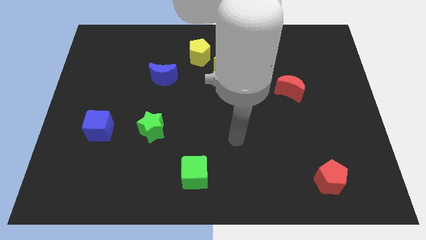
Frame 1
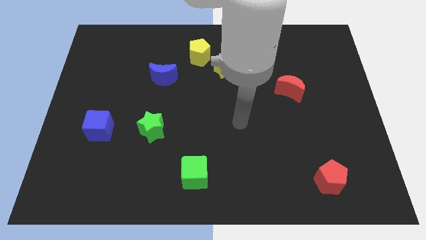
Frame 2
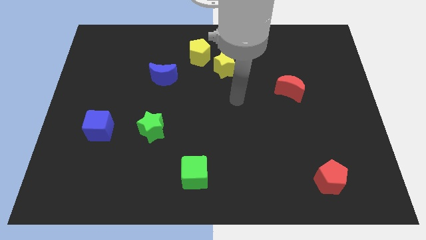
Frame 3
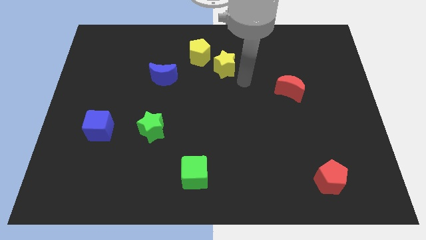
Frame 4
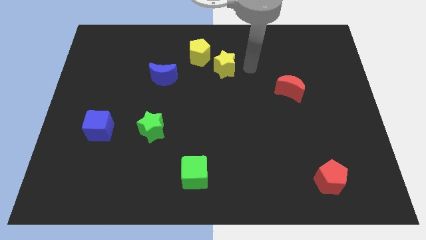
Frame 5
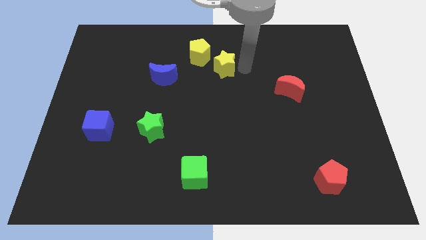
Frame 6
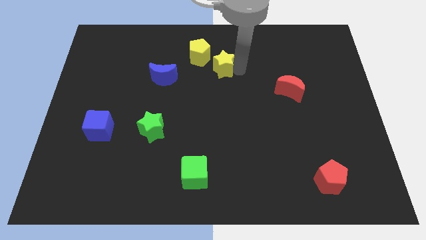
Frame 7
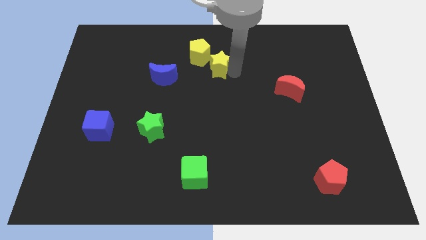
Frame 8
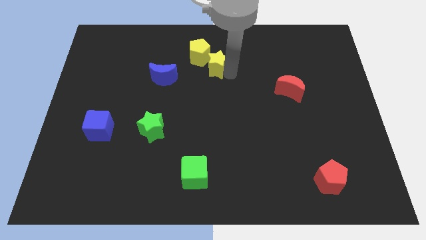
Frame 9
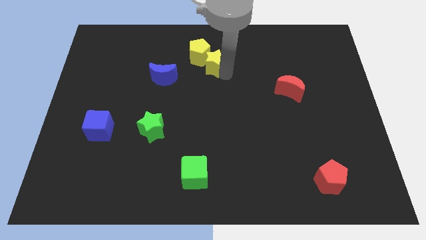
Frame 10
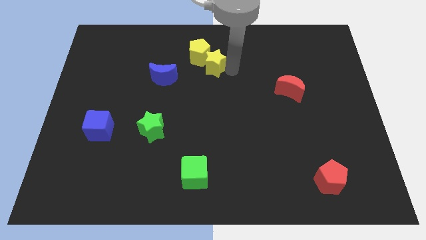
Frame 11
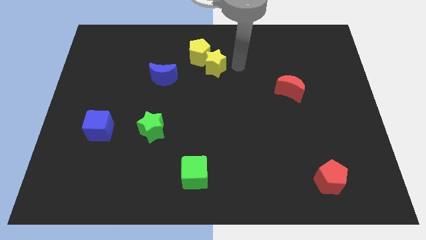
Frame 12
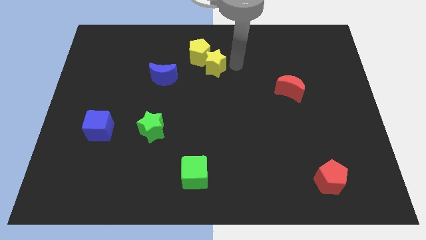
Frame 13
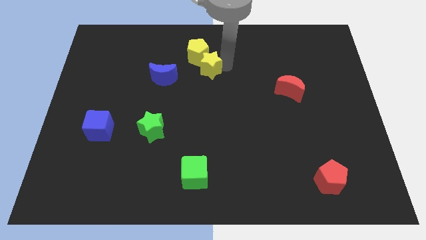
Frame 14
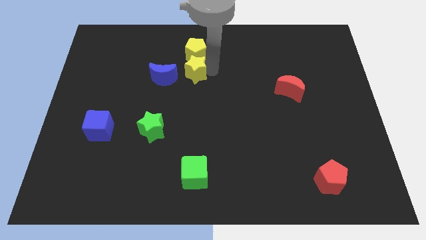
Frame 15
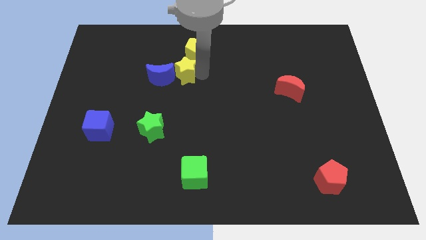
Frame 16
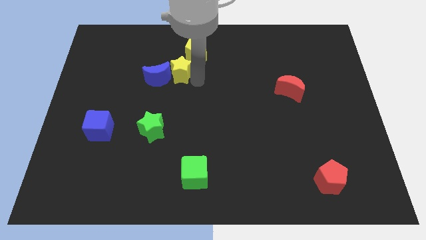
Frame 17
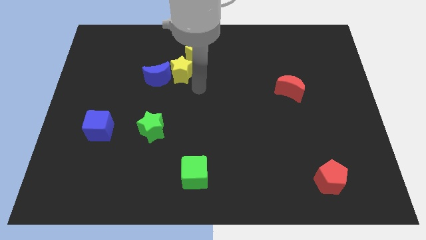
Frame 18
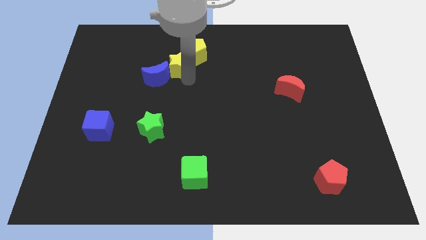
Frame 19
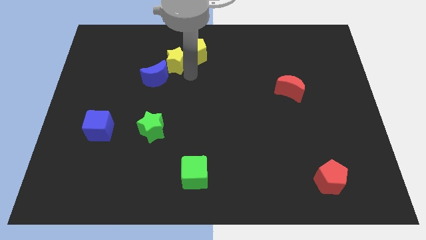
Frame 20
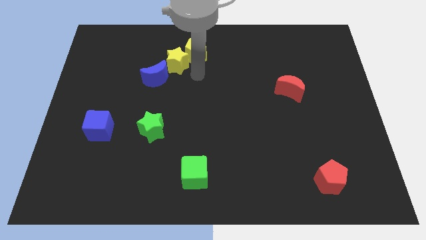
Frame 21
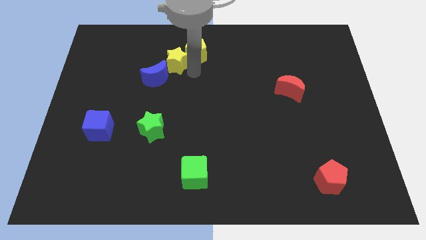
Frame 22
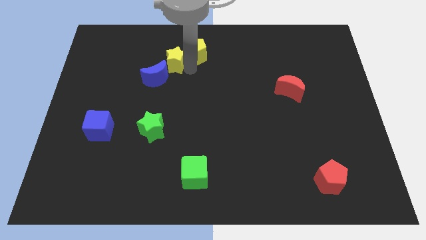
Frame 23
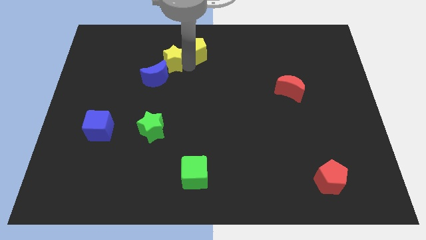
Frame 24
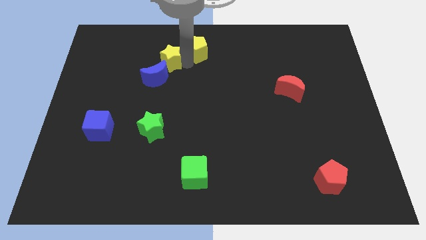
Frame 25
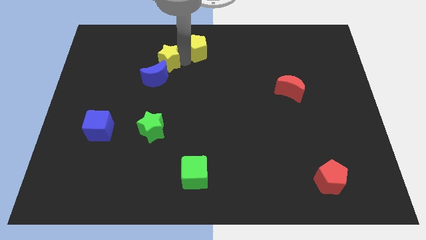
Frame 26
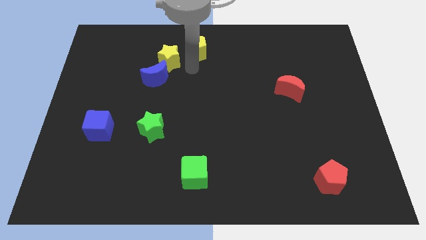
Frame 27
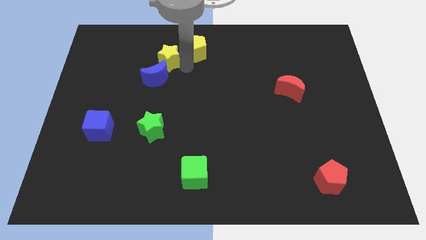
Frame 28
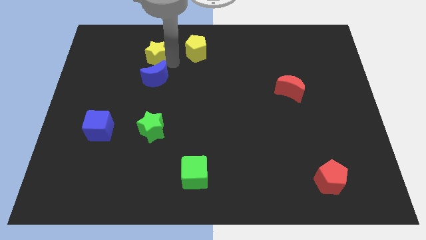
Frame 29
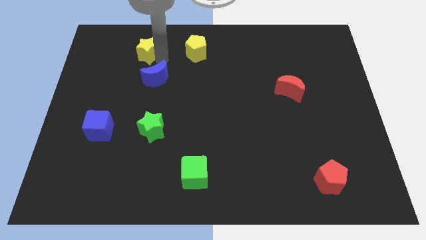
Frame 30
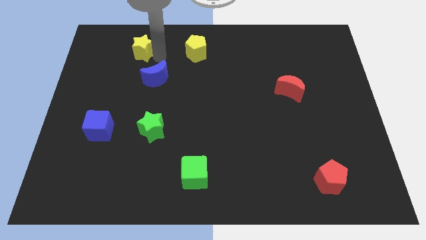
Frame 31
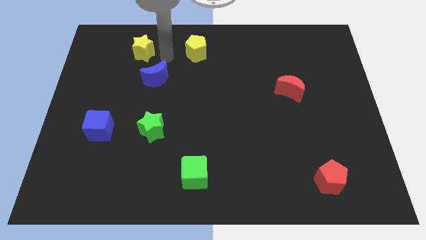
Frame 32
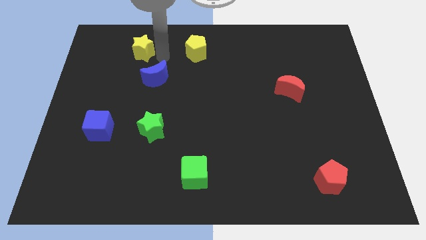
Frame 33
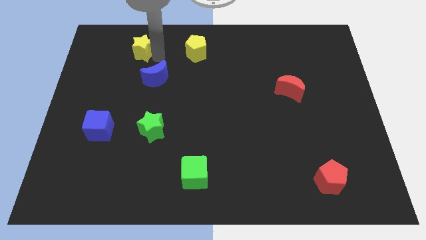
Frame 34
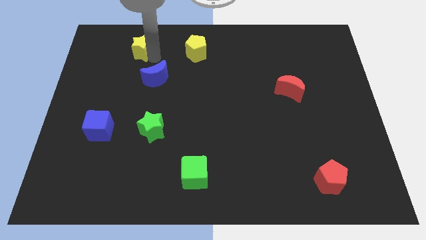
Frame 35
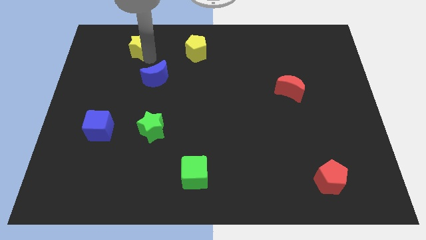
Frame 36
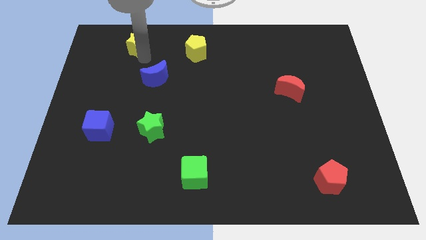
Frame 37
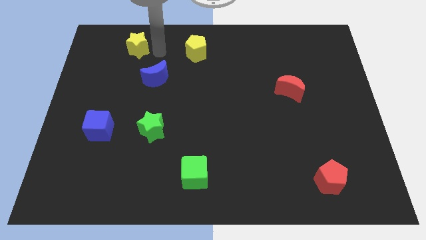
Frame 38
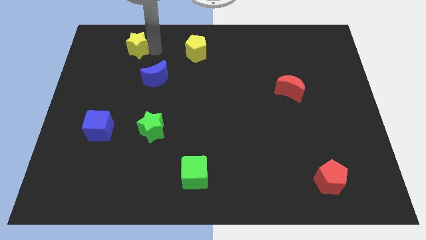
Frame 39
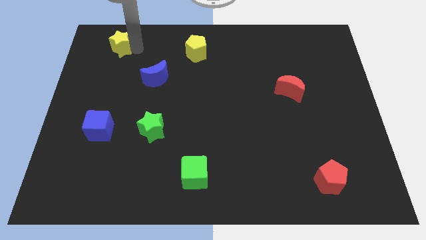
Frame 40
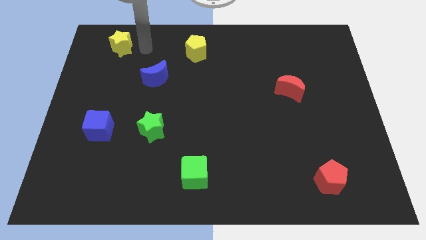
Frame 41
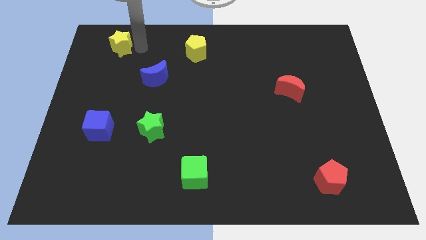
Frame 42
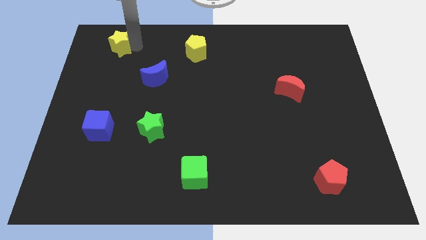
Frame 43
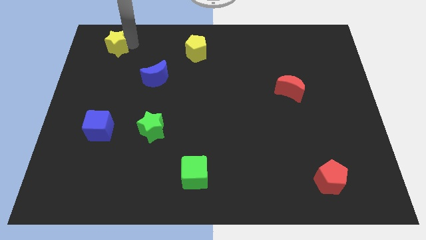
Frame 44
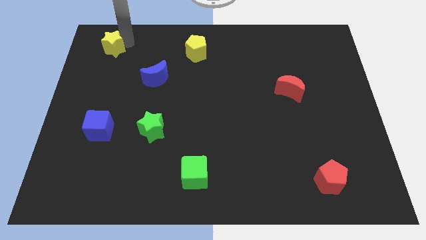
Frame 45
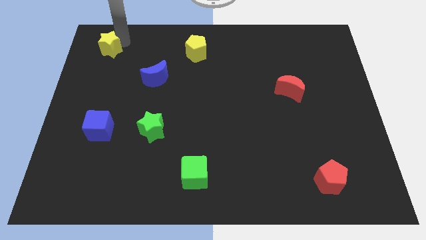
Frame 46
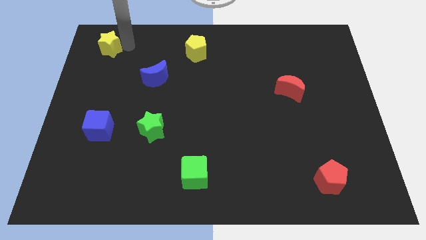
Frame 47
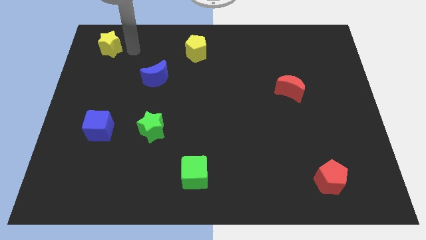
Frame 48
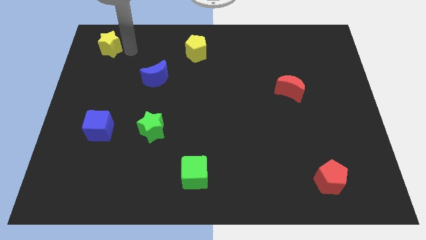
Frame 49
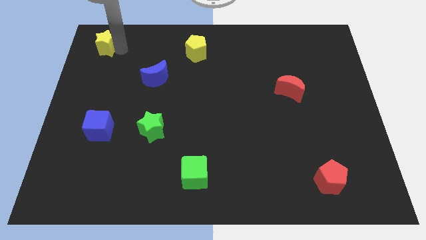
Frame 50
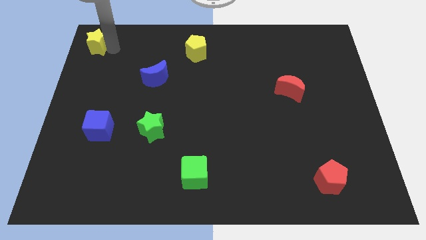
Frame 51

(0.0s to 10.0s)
slide the yellow star to the top left corner

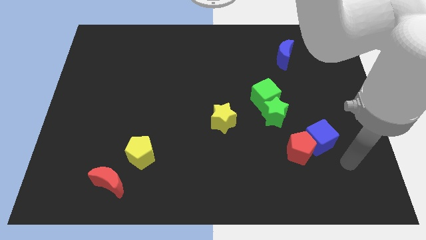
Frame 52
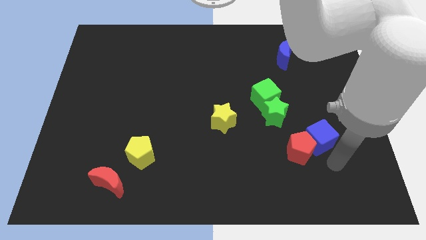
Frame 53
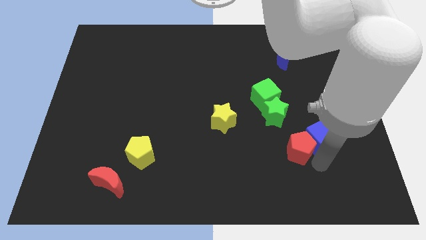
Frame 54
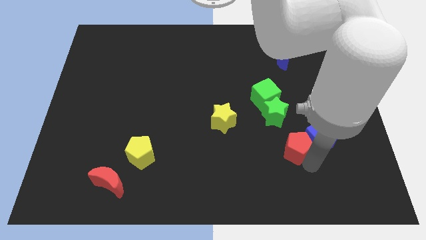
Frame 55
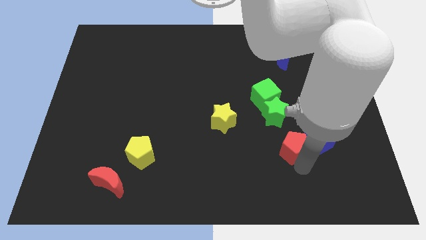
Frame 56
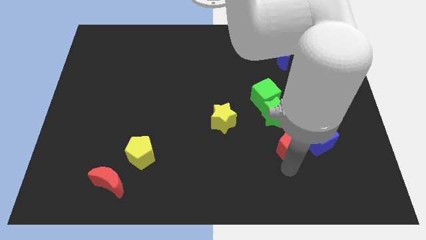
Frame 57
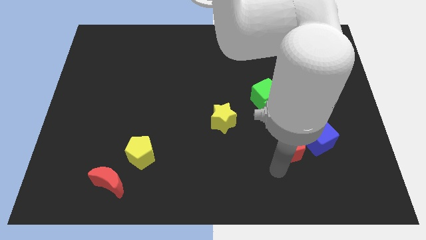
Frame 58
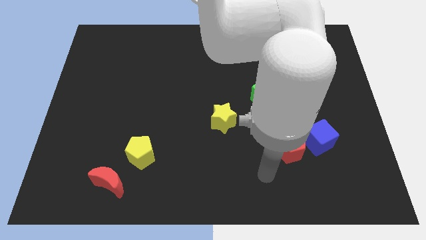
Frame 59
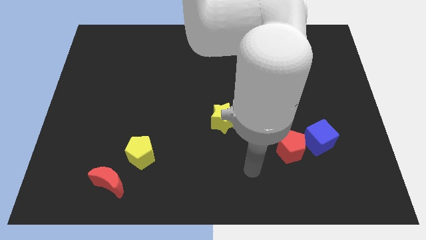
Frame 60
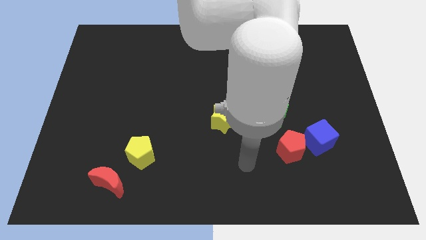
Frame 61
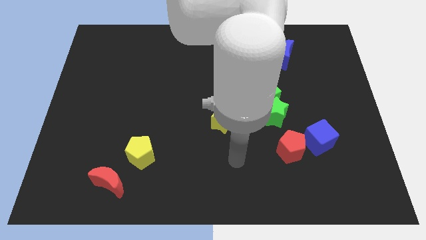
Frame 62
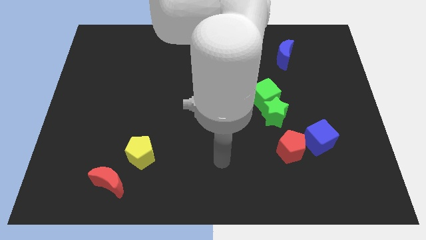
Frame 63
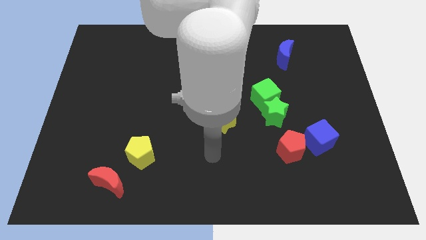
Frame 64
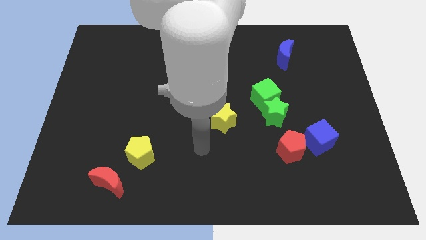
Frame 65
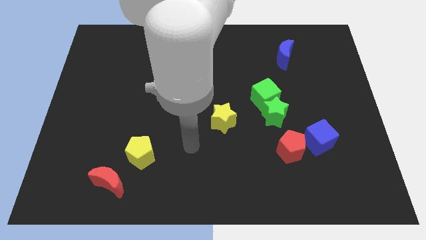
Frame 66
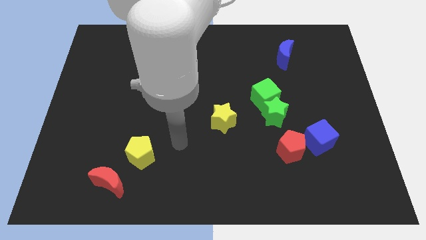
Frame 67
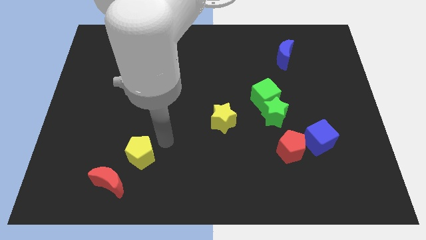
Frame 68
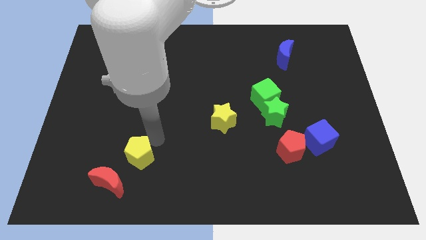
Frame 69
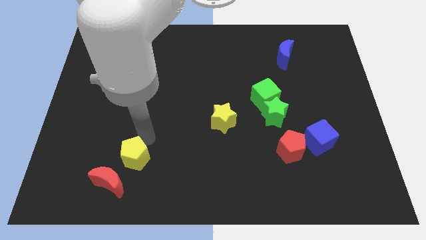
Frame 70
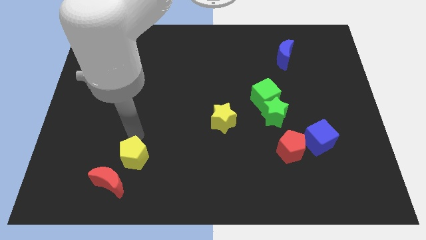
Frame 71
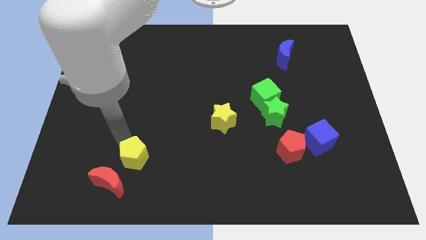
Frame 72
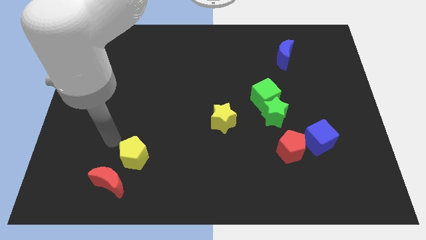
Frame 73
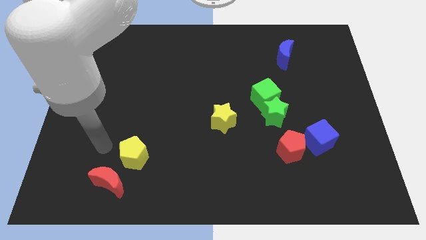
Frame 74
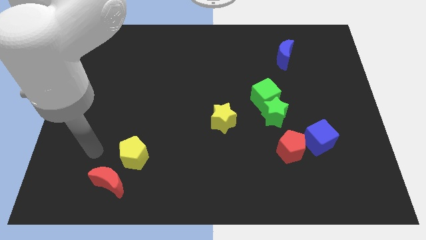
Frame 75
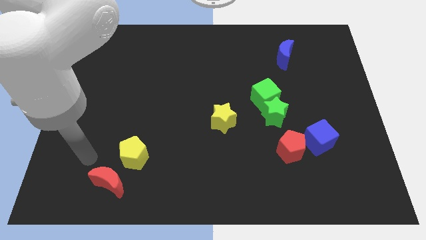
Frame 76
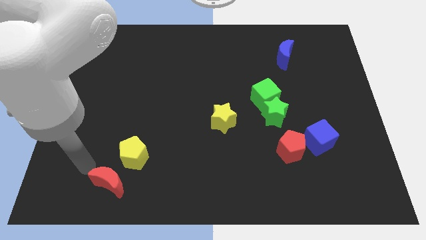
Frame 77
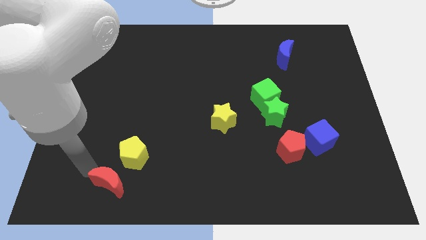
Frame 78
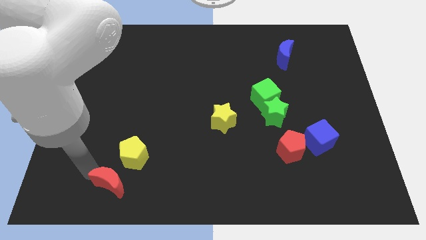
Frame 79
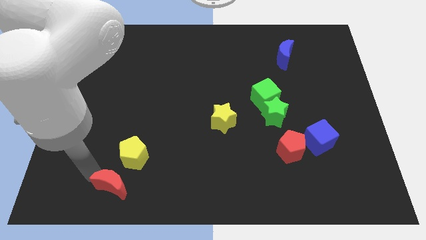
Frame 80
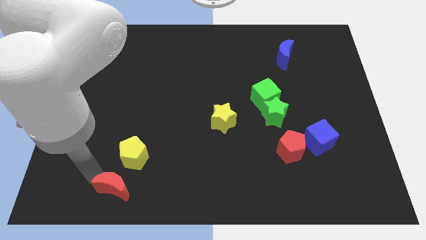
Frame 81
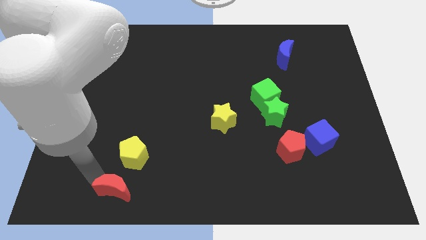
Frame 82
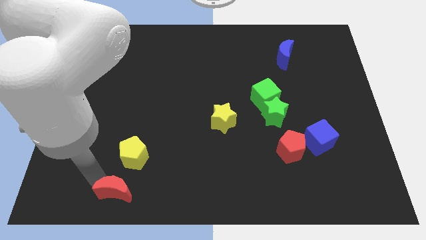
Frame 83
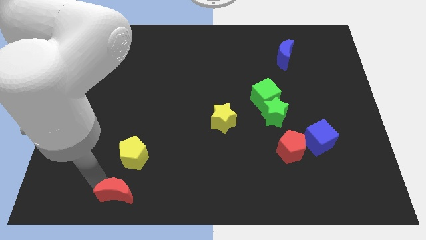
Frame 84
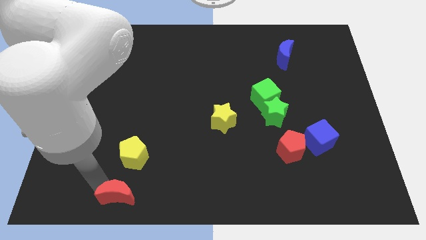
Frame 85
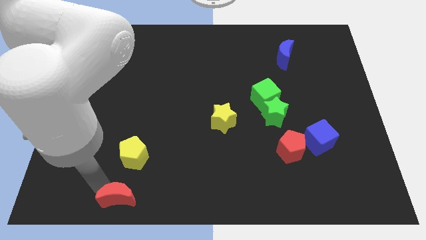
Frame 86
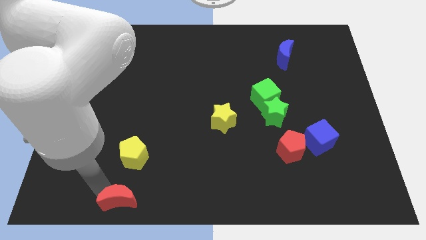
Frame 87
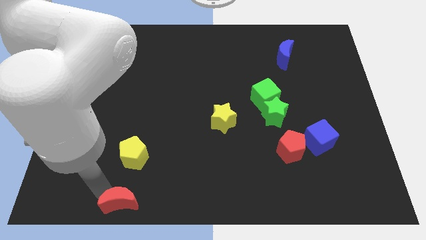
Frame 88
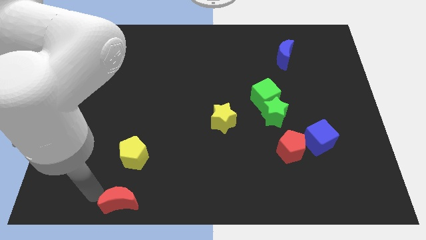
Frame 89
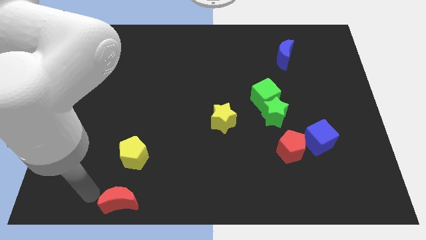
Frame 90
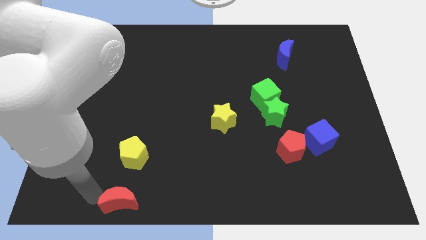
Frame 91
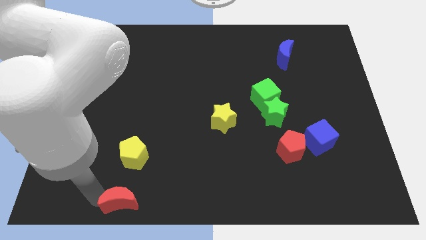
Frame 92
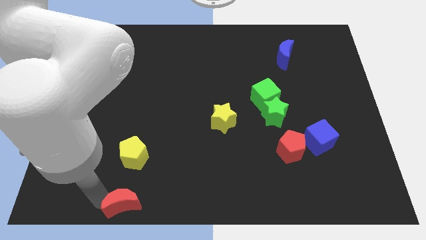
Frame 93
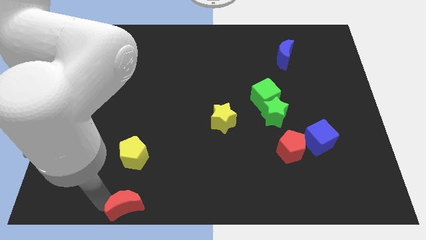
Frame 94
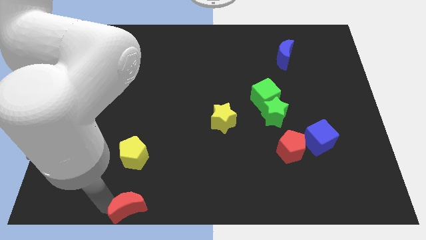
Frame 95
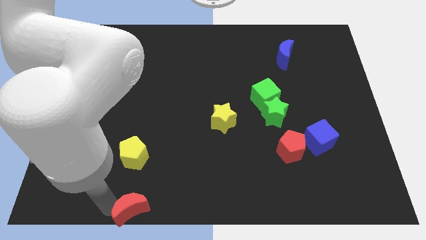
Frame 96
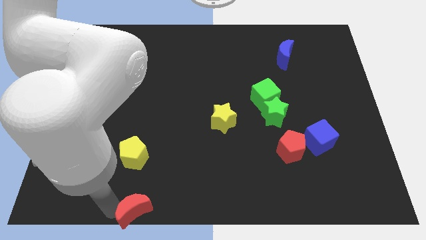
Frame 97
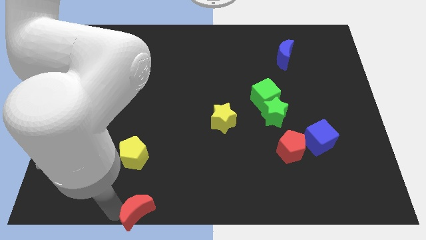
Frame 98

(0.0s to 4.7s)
move the red moon to the bottom
